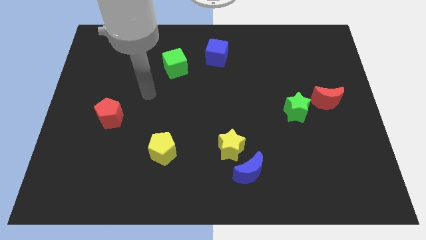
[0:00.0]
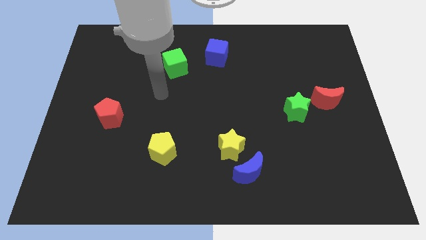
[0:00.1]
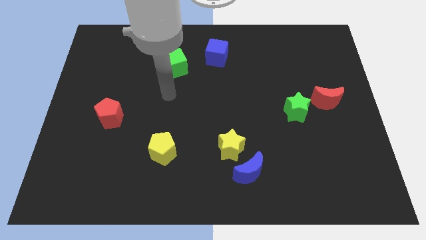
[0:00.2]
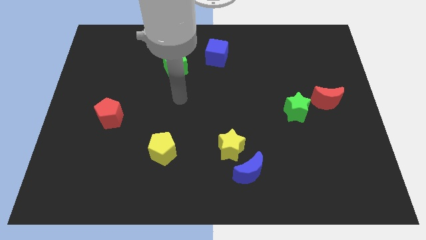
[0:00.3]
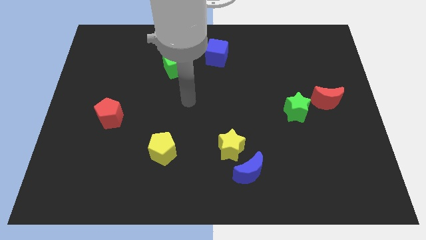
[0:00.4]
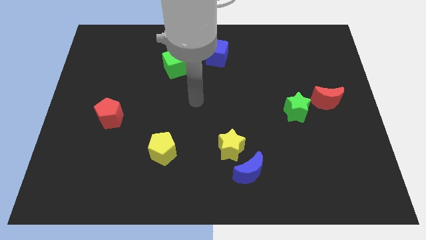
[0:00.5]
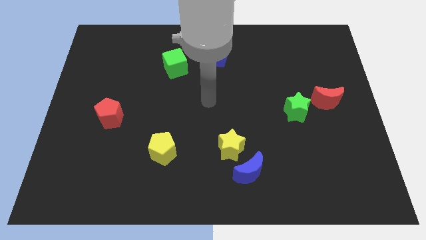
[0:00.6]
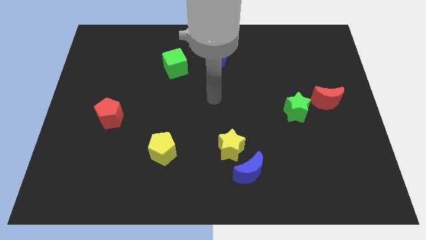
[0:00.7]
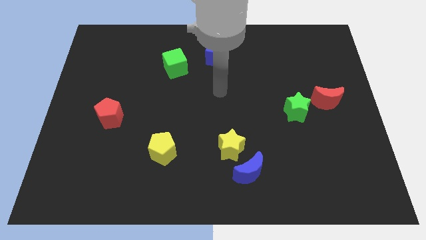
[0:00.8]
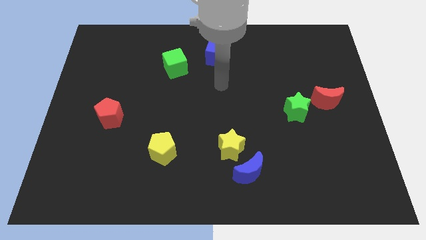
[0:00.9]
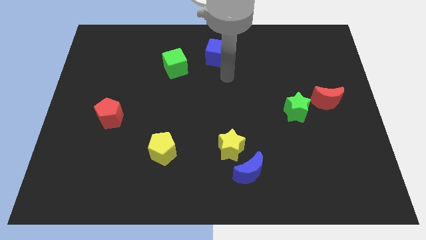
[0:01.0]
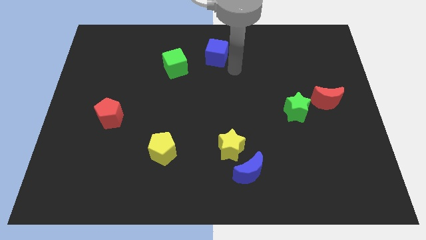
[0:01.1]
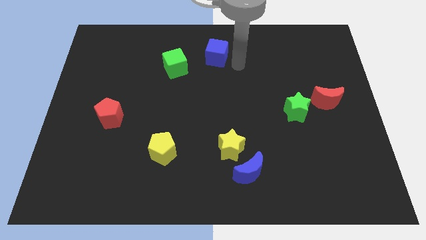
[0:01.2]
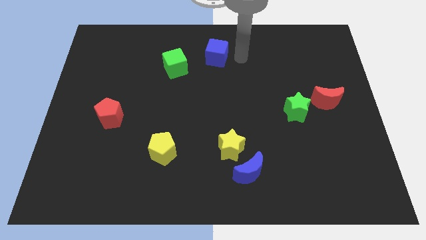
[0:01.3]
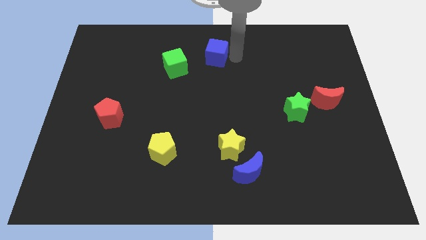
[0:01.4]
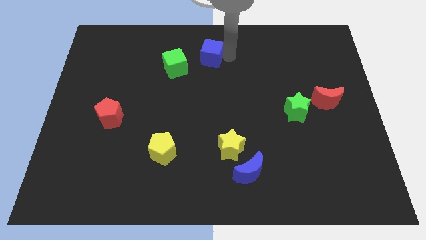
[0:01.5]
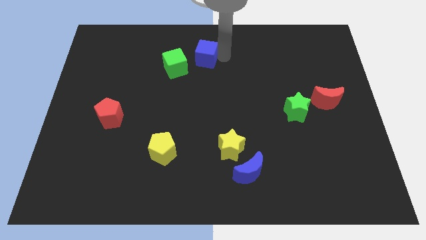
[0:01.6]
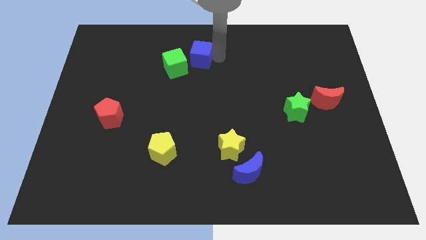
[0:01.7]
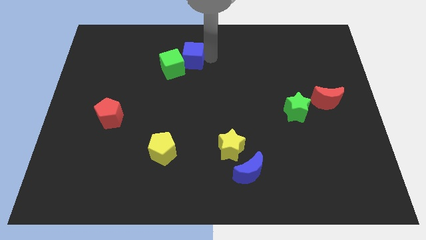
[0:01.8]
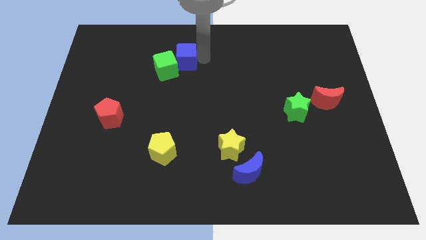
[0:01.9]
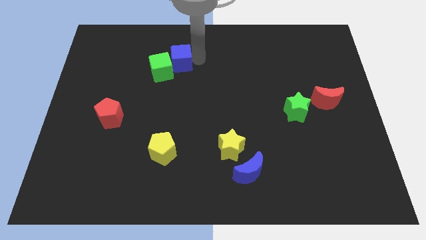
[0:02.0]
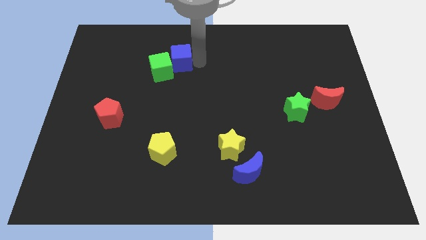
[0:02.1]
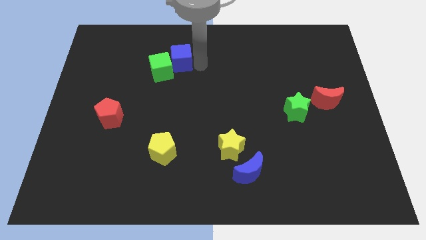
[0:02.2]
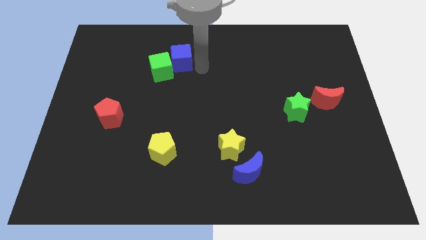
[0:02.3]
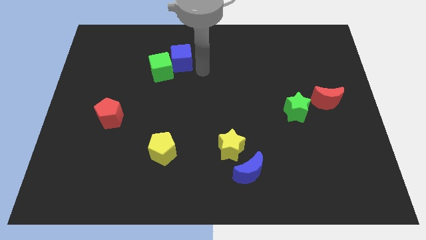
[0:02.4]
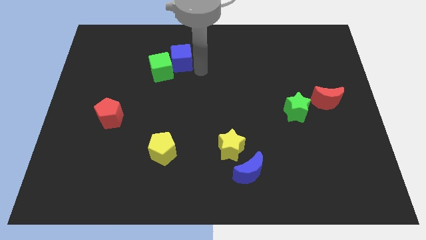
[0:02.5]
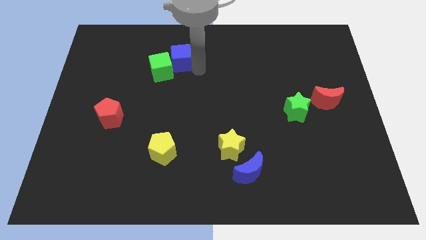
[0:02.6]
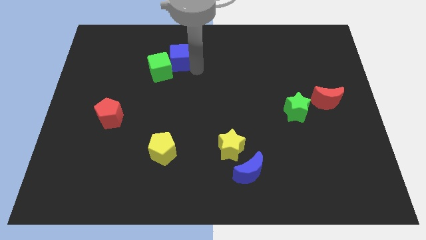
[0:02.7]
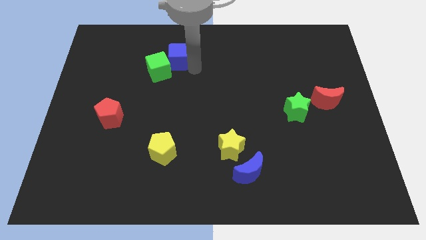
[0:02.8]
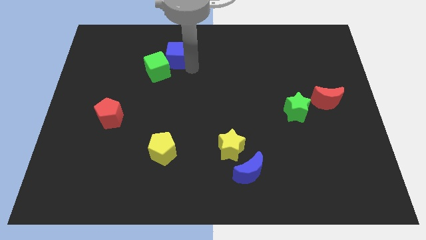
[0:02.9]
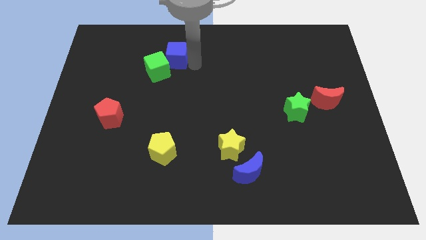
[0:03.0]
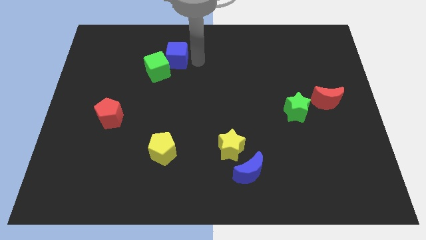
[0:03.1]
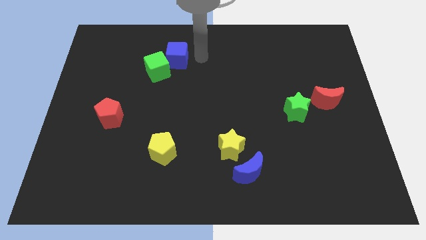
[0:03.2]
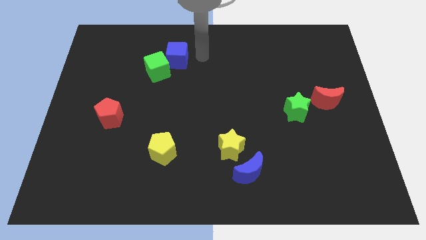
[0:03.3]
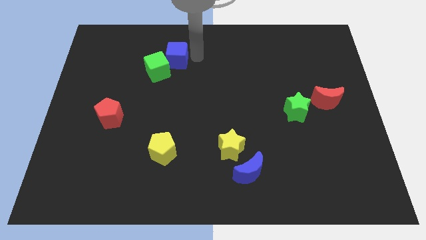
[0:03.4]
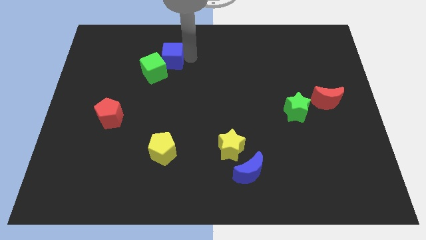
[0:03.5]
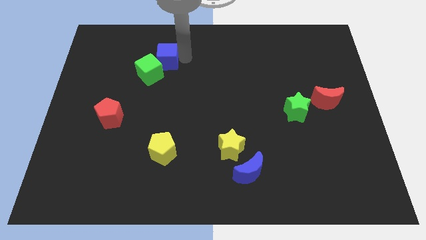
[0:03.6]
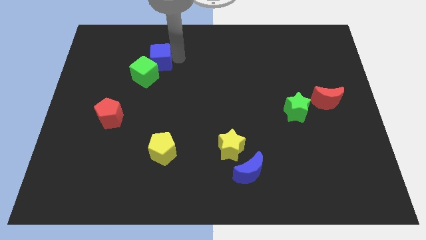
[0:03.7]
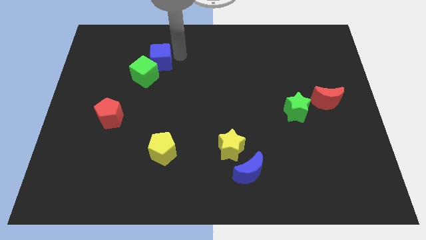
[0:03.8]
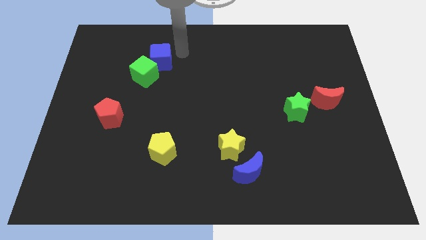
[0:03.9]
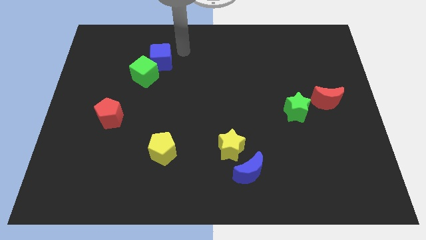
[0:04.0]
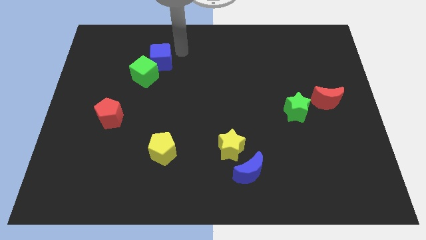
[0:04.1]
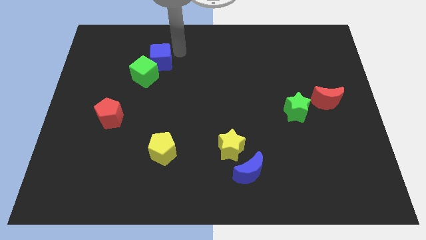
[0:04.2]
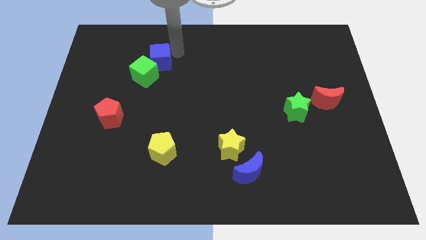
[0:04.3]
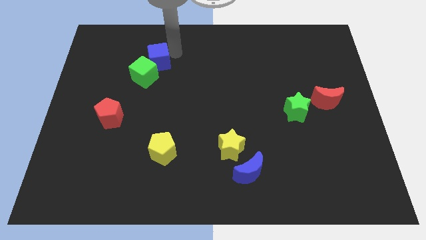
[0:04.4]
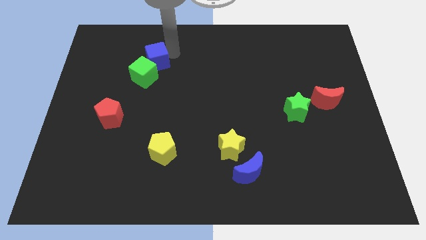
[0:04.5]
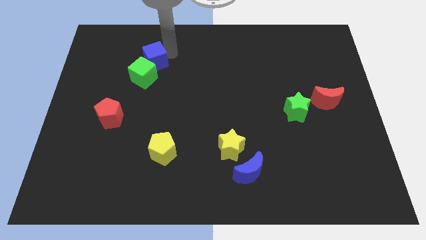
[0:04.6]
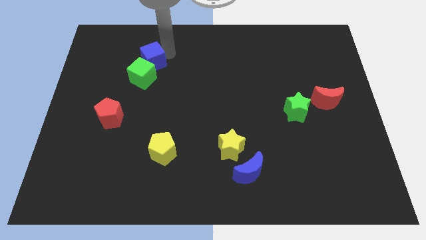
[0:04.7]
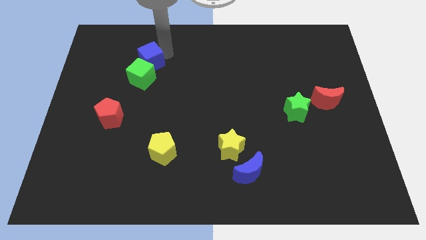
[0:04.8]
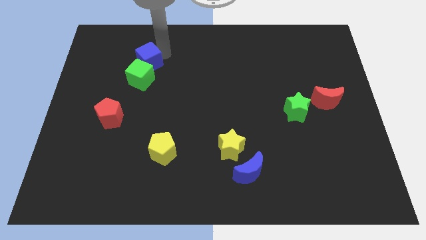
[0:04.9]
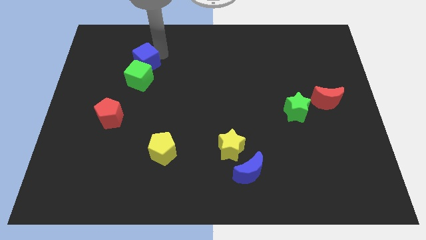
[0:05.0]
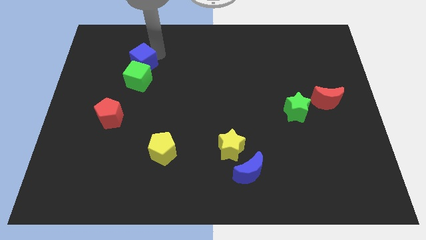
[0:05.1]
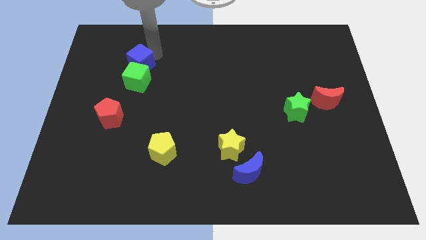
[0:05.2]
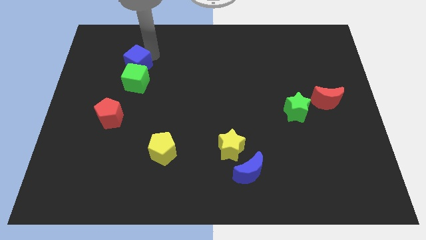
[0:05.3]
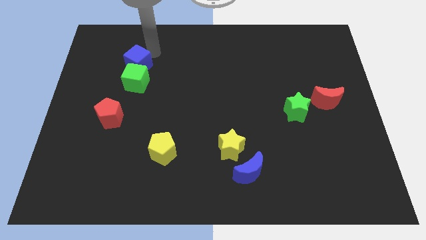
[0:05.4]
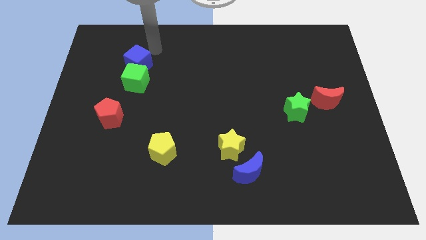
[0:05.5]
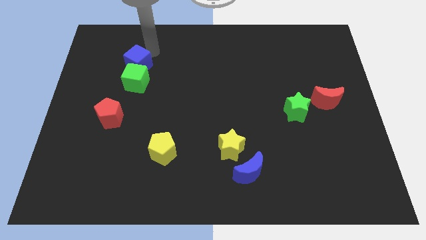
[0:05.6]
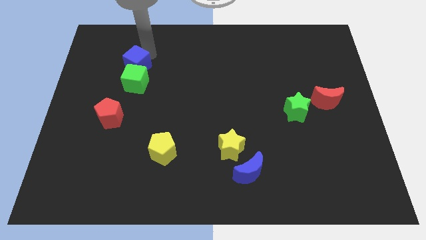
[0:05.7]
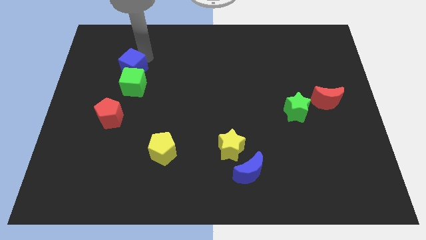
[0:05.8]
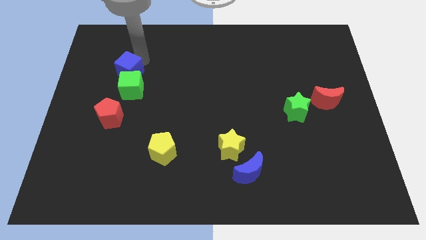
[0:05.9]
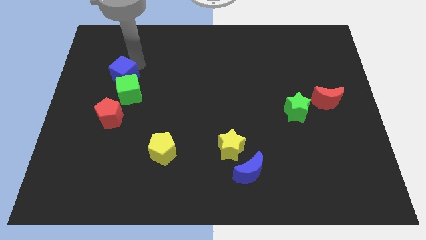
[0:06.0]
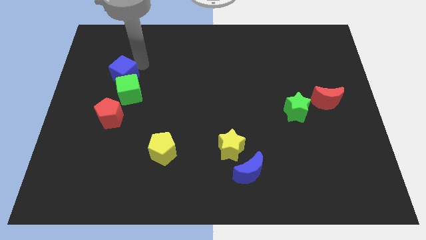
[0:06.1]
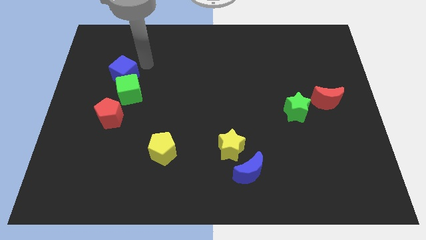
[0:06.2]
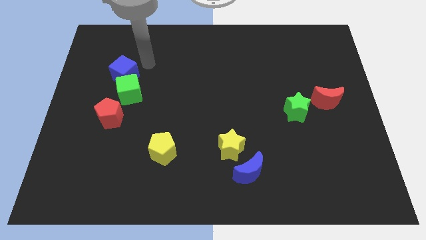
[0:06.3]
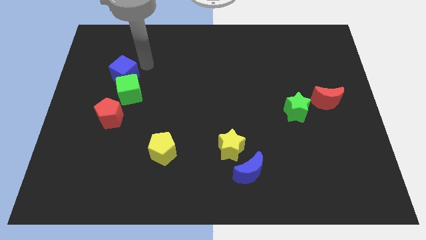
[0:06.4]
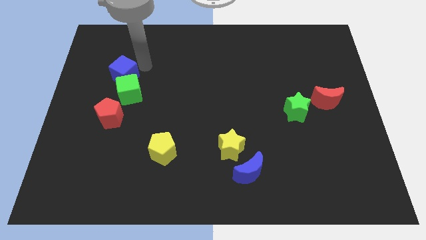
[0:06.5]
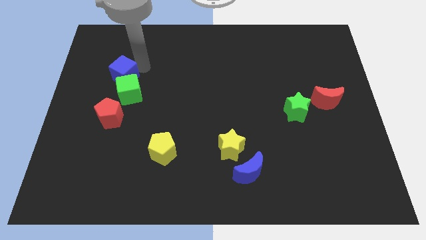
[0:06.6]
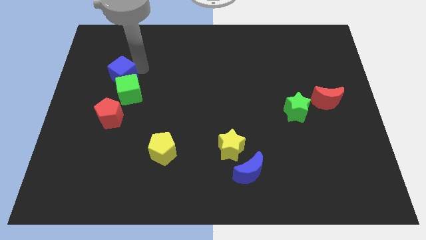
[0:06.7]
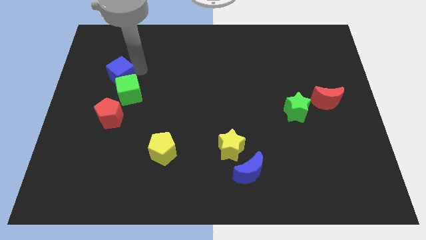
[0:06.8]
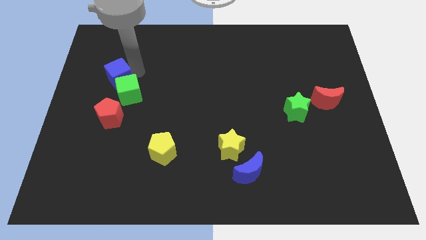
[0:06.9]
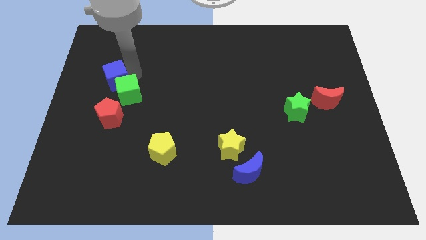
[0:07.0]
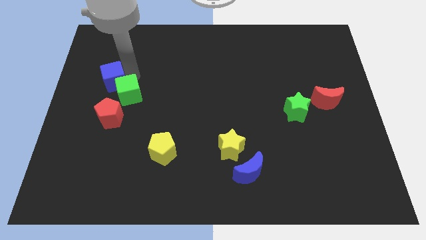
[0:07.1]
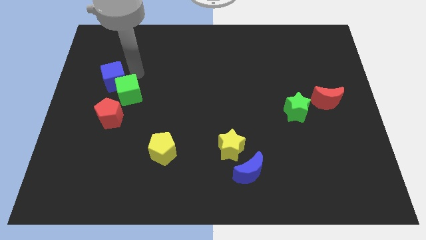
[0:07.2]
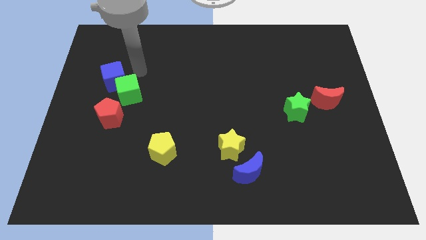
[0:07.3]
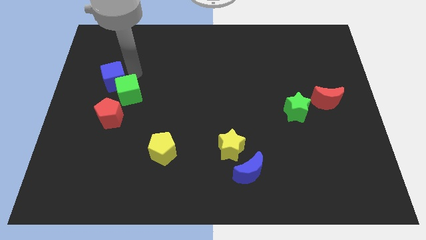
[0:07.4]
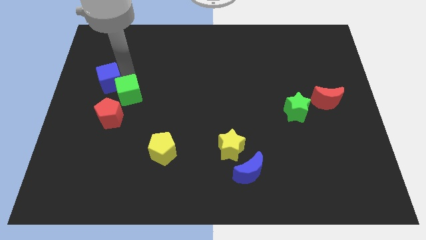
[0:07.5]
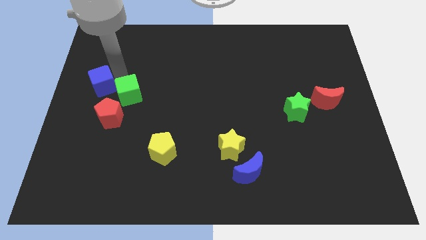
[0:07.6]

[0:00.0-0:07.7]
move the blue cube to the center left
